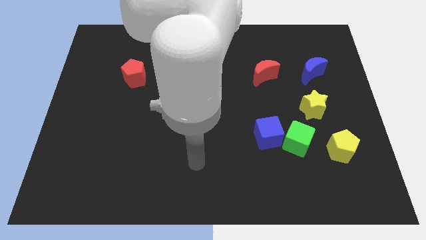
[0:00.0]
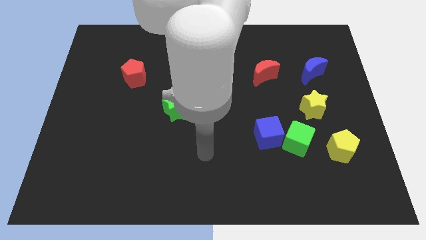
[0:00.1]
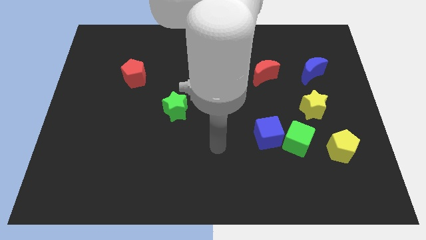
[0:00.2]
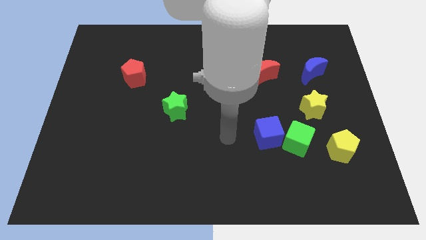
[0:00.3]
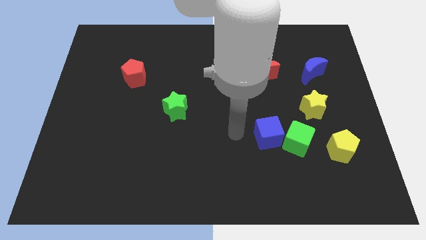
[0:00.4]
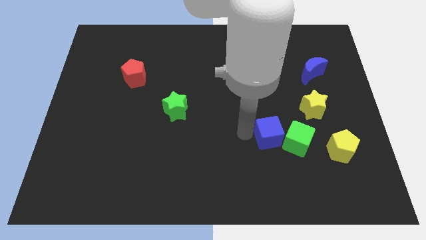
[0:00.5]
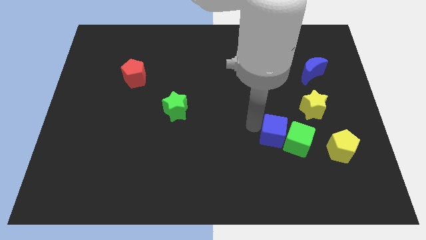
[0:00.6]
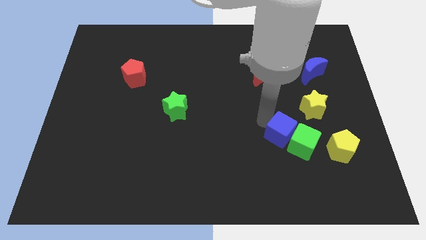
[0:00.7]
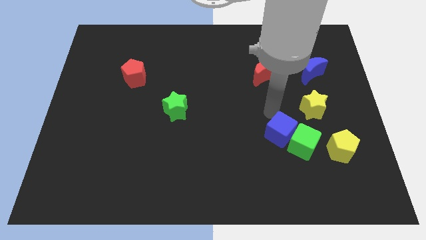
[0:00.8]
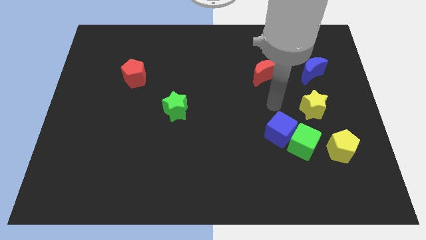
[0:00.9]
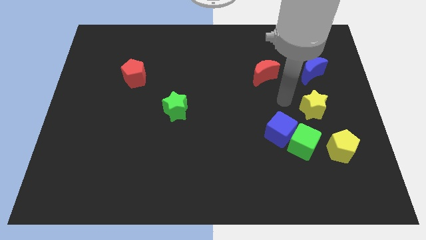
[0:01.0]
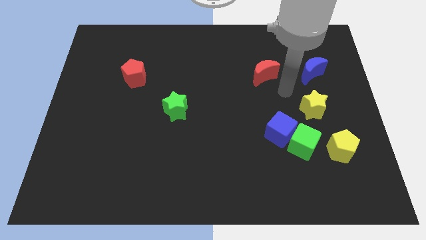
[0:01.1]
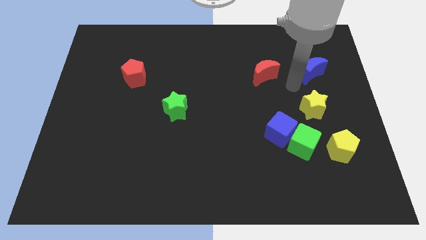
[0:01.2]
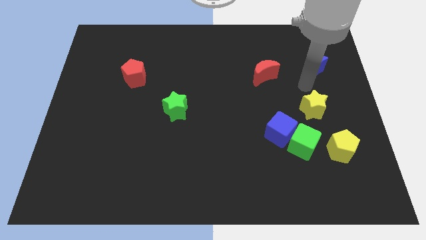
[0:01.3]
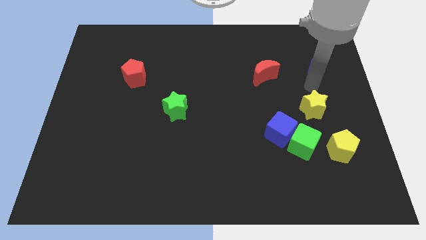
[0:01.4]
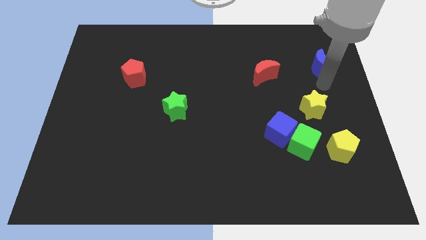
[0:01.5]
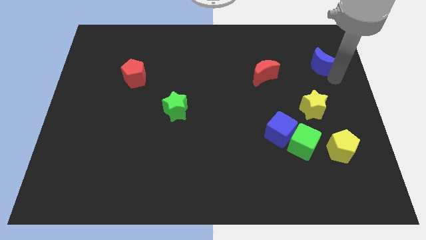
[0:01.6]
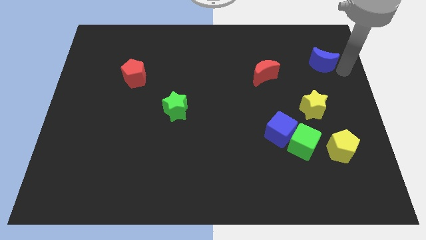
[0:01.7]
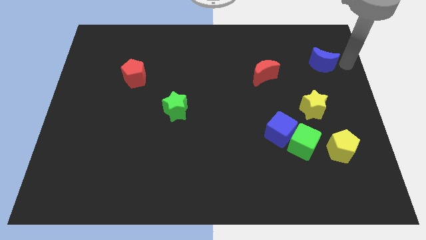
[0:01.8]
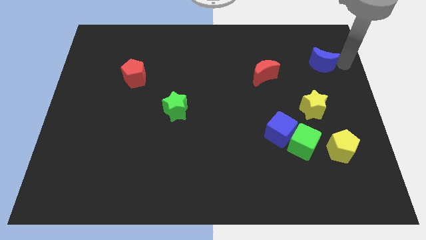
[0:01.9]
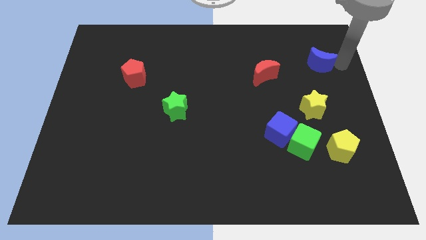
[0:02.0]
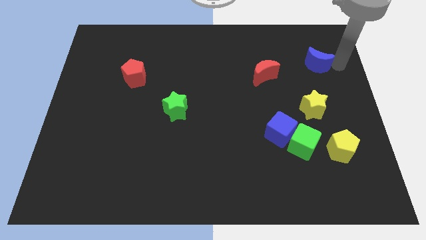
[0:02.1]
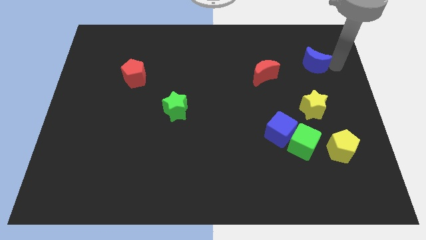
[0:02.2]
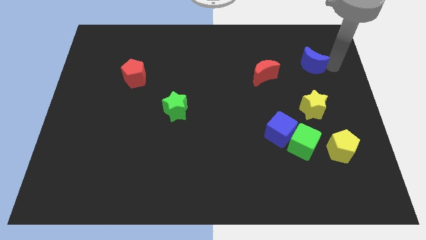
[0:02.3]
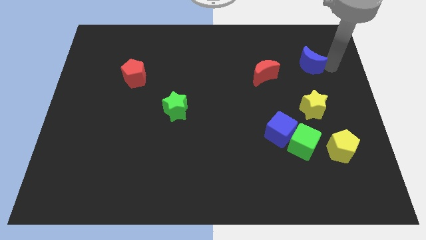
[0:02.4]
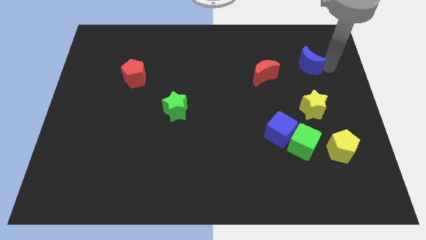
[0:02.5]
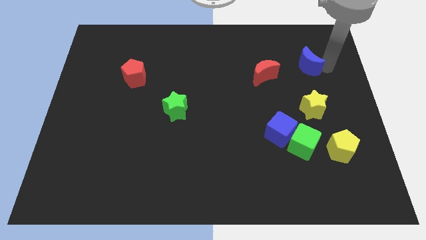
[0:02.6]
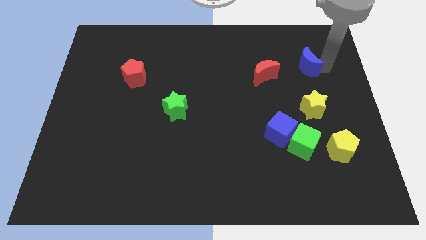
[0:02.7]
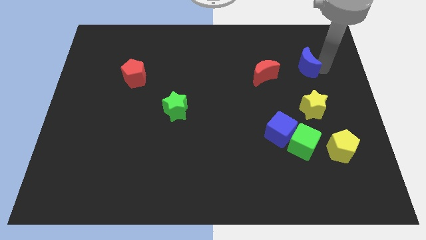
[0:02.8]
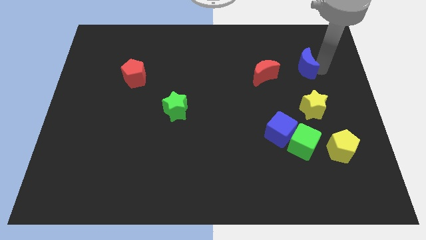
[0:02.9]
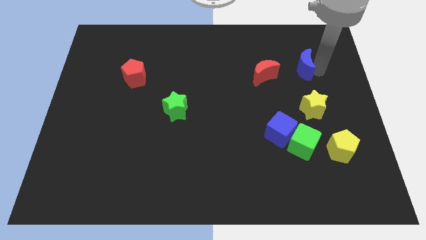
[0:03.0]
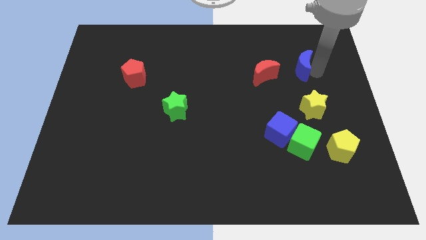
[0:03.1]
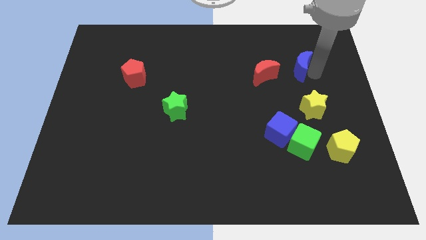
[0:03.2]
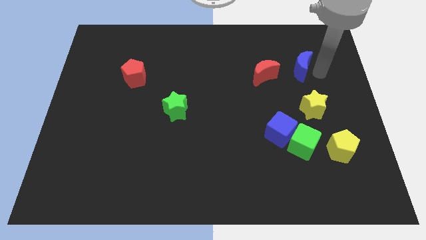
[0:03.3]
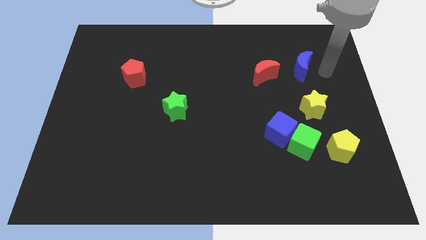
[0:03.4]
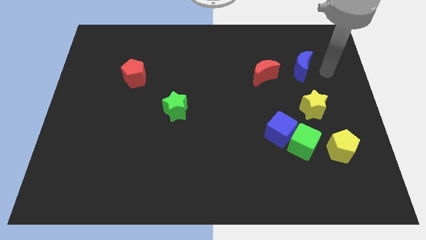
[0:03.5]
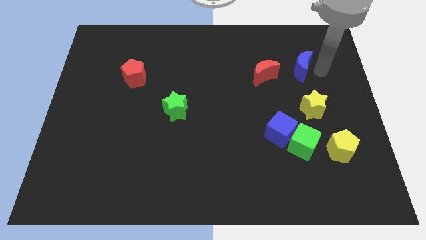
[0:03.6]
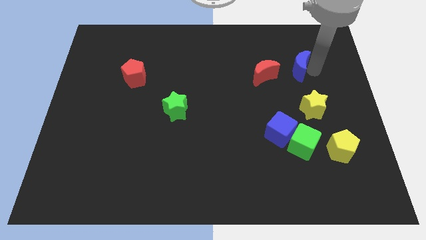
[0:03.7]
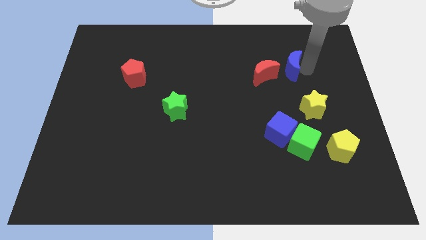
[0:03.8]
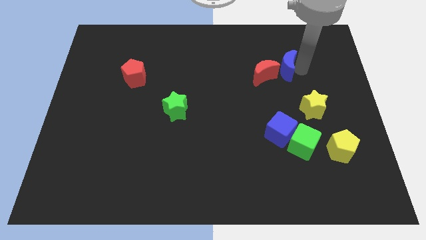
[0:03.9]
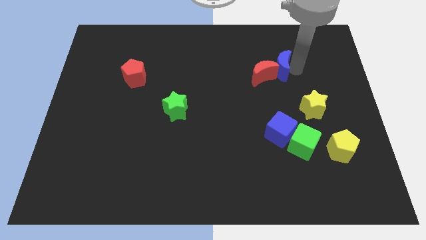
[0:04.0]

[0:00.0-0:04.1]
push the blue moon slightly to the left

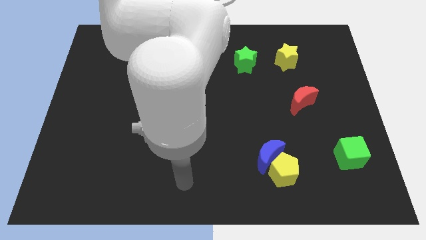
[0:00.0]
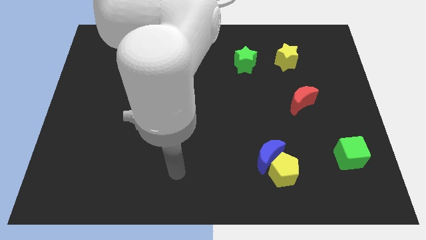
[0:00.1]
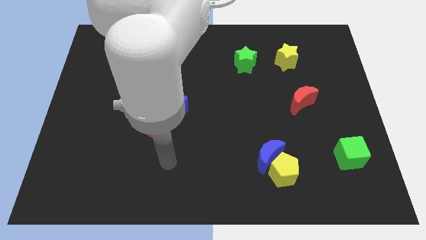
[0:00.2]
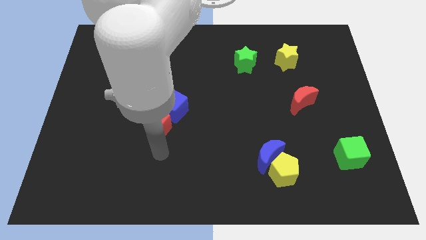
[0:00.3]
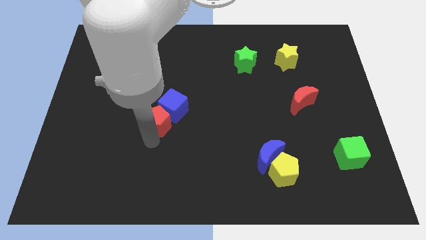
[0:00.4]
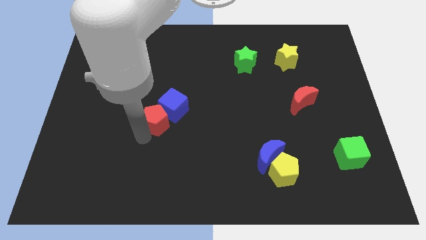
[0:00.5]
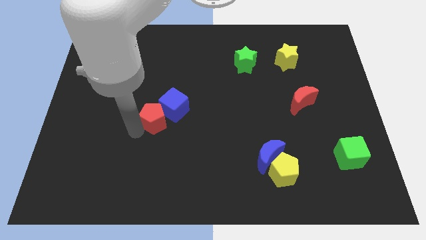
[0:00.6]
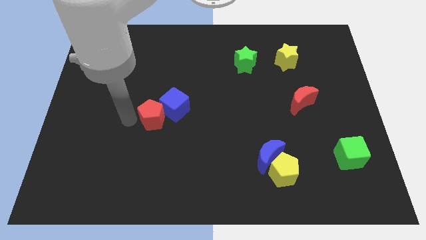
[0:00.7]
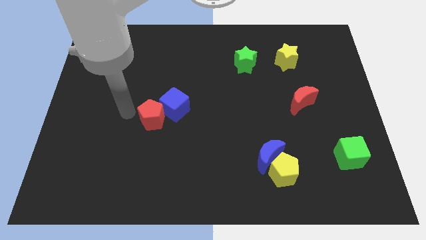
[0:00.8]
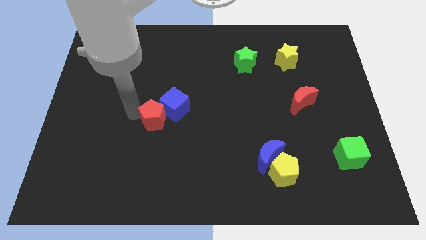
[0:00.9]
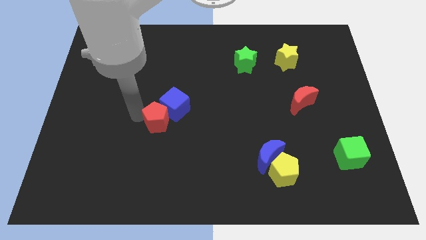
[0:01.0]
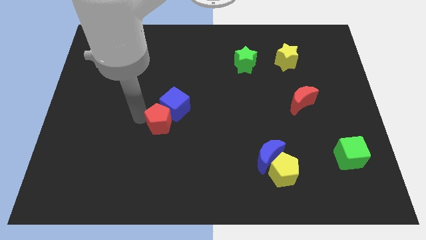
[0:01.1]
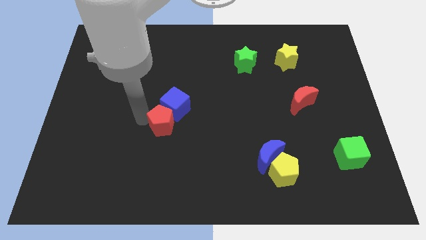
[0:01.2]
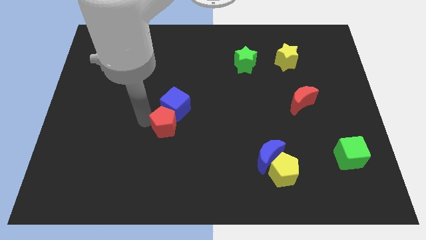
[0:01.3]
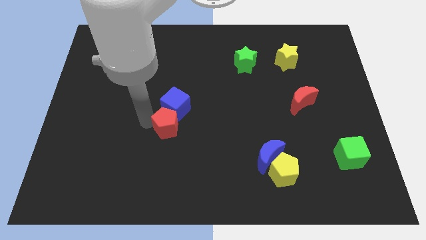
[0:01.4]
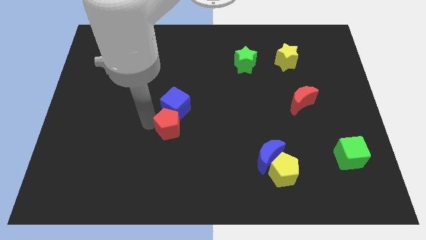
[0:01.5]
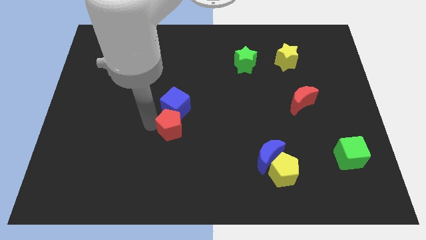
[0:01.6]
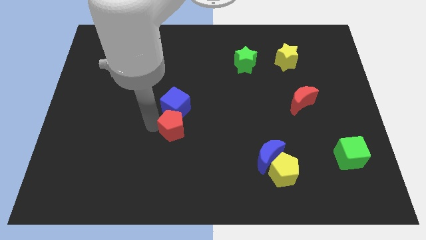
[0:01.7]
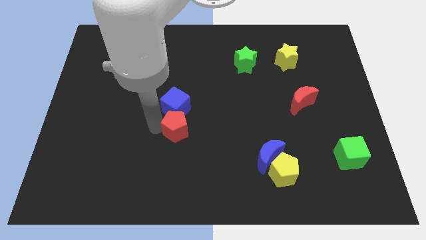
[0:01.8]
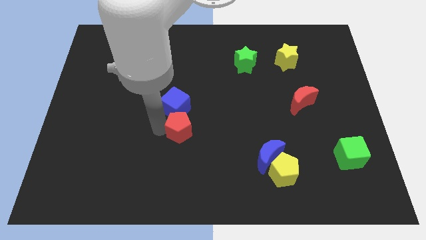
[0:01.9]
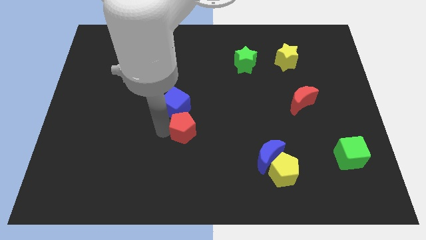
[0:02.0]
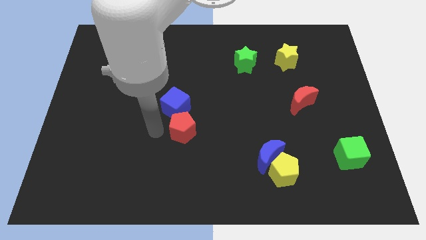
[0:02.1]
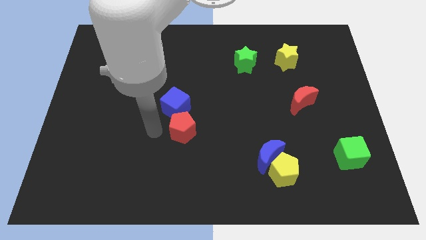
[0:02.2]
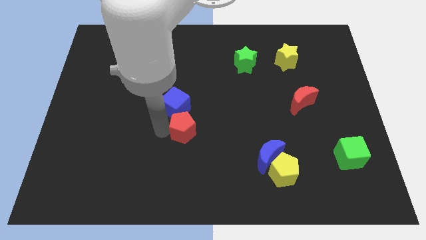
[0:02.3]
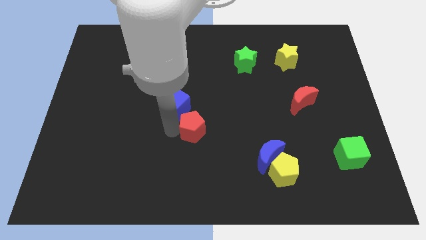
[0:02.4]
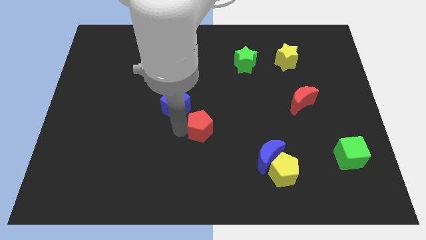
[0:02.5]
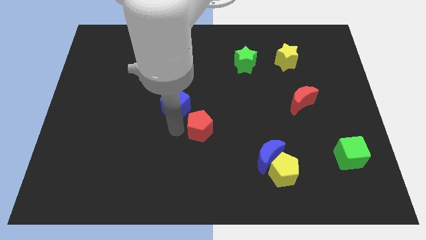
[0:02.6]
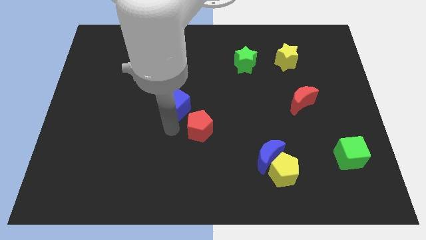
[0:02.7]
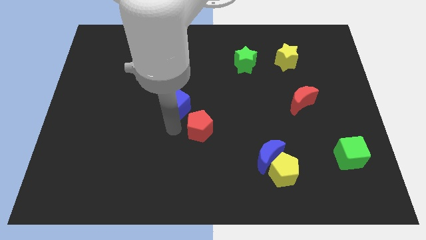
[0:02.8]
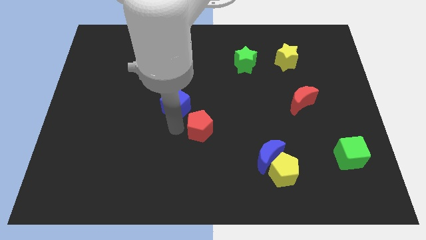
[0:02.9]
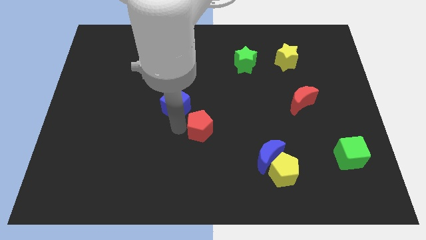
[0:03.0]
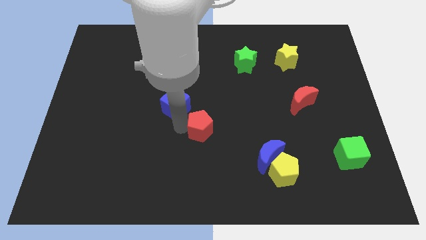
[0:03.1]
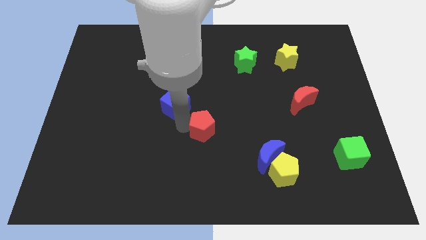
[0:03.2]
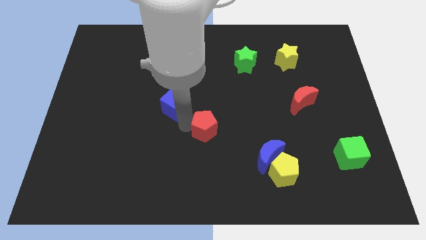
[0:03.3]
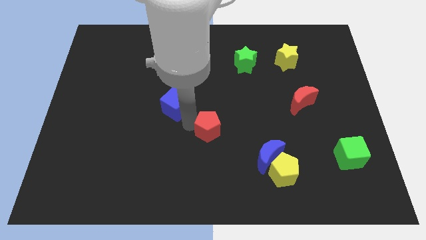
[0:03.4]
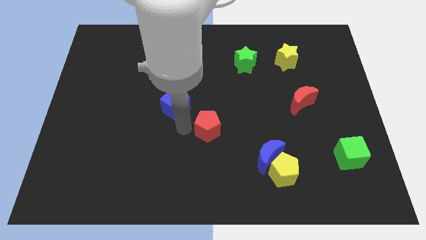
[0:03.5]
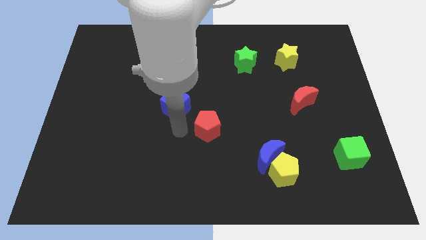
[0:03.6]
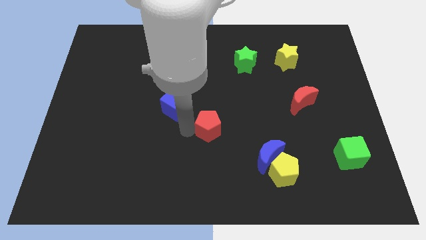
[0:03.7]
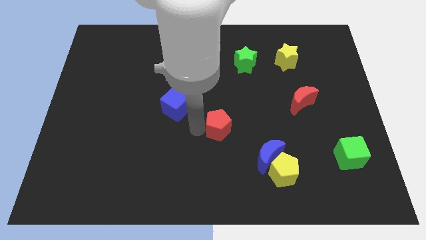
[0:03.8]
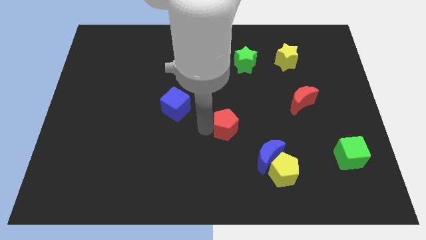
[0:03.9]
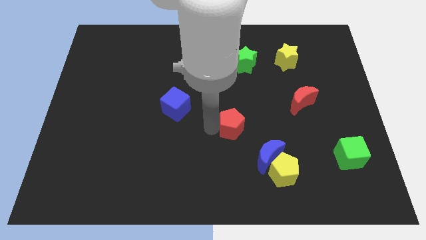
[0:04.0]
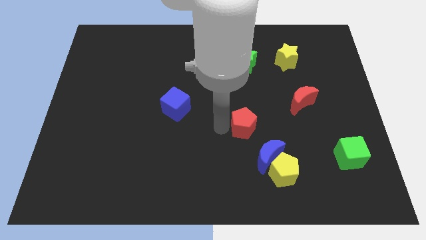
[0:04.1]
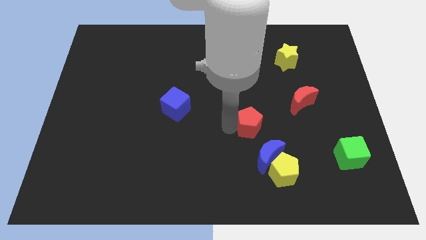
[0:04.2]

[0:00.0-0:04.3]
push the red pentagon right
